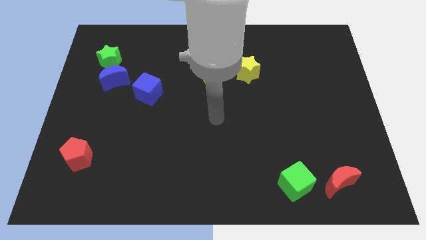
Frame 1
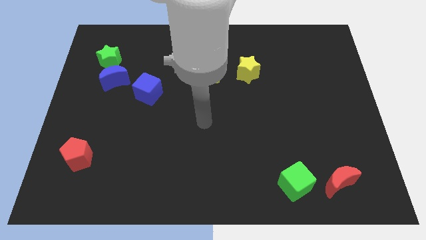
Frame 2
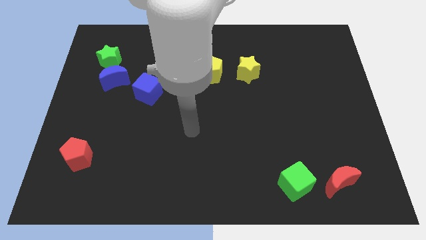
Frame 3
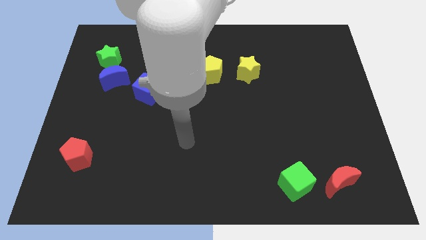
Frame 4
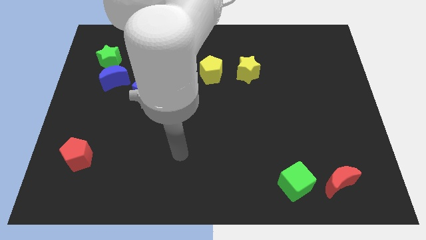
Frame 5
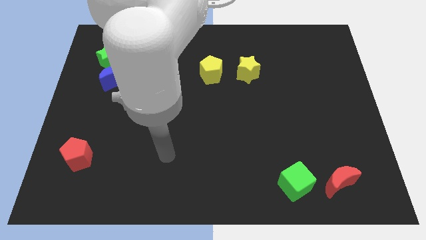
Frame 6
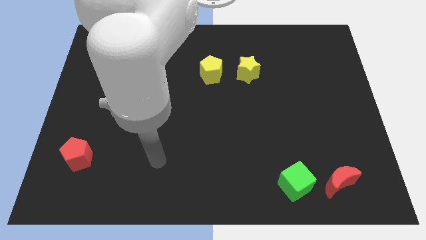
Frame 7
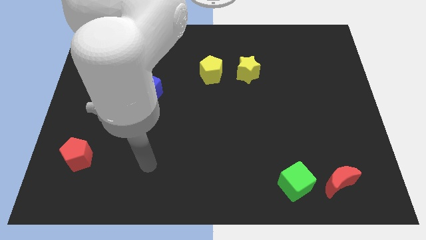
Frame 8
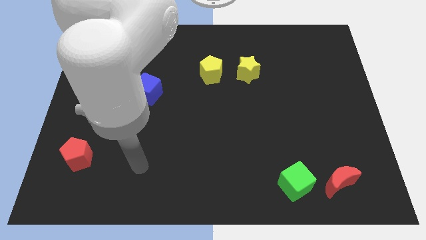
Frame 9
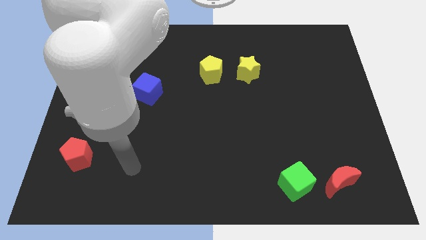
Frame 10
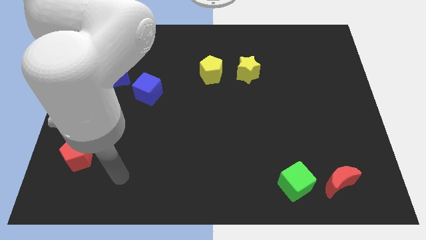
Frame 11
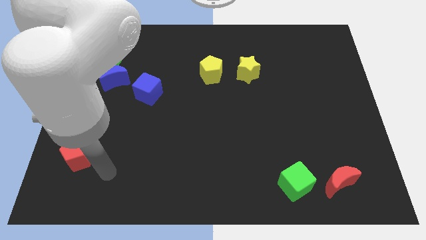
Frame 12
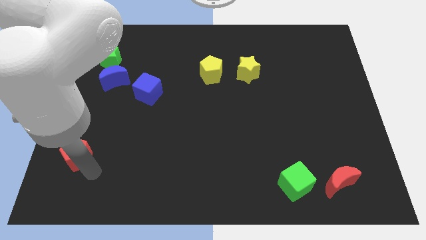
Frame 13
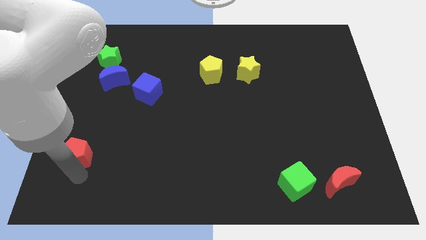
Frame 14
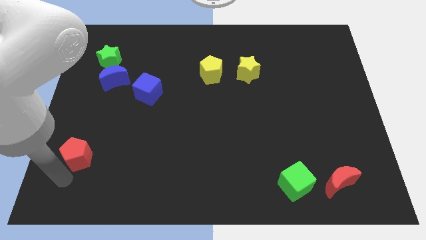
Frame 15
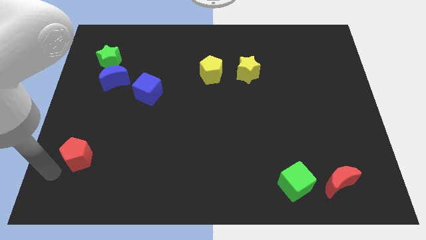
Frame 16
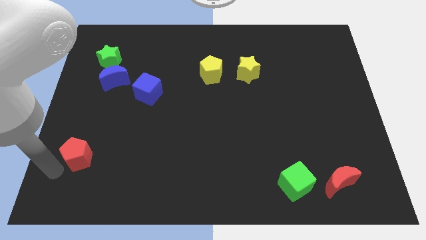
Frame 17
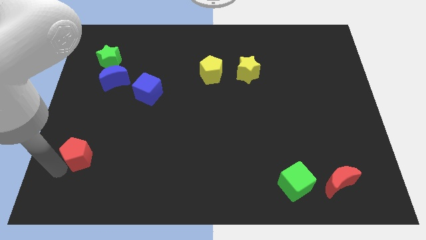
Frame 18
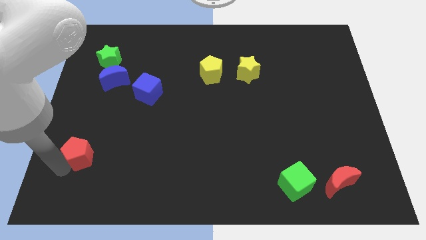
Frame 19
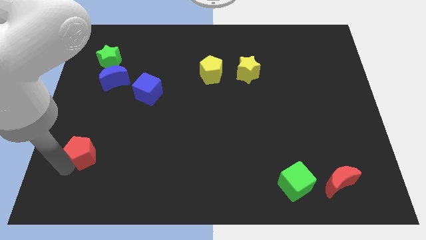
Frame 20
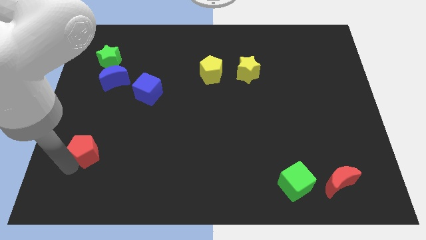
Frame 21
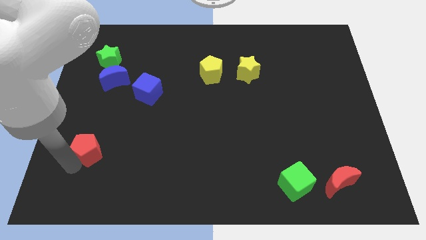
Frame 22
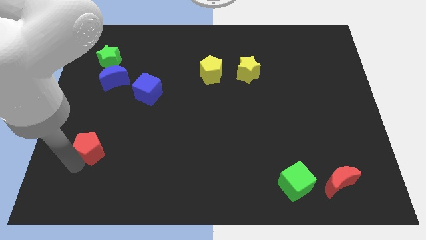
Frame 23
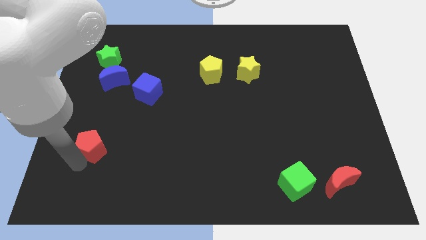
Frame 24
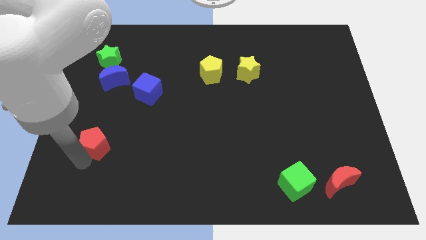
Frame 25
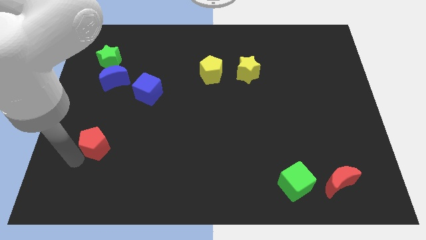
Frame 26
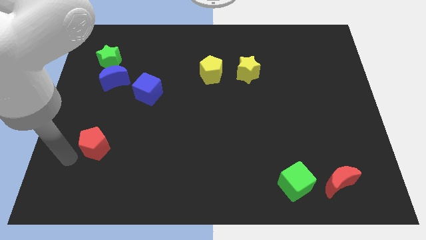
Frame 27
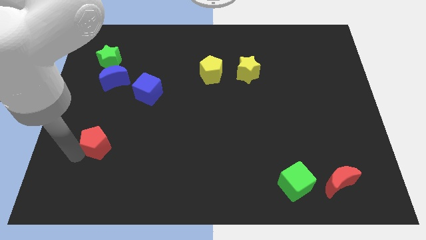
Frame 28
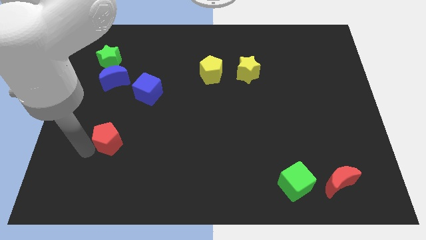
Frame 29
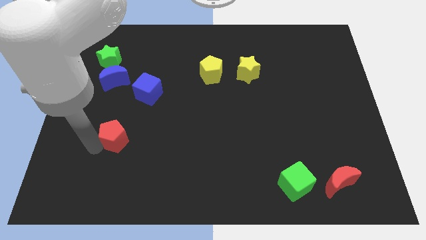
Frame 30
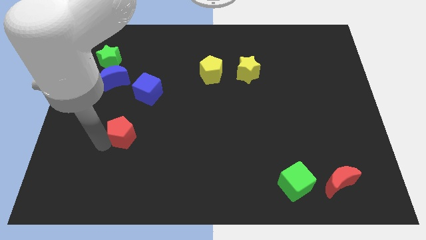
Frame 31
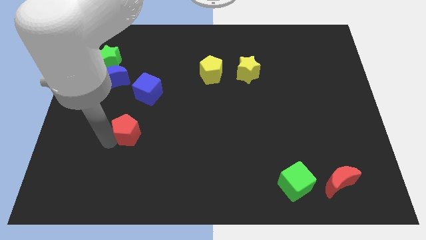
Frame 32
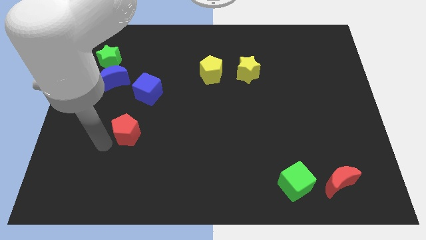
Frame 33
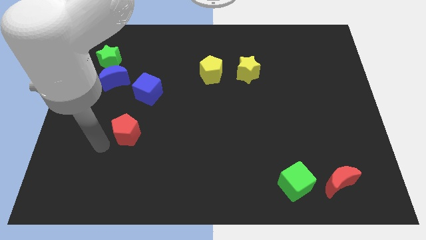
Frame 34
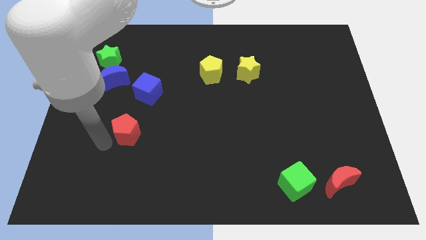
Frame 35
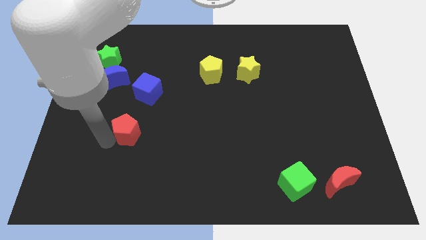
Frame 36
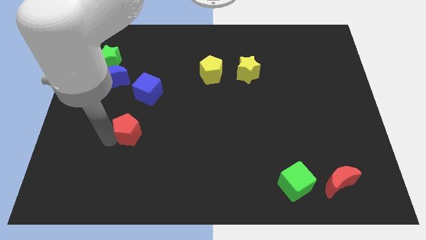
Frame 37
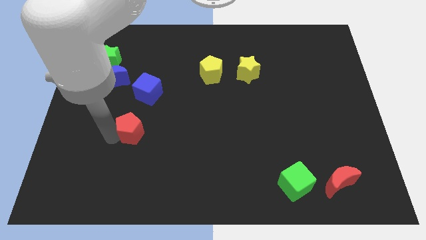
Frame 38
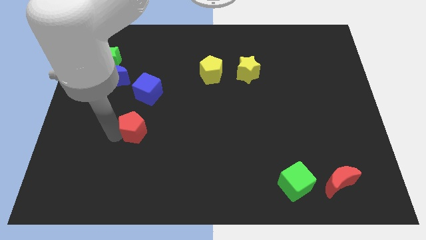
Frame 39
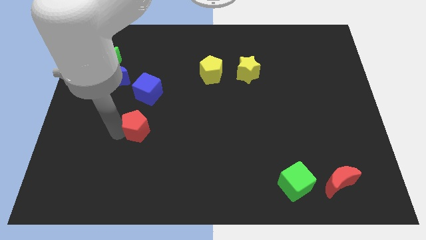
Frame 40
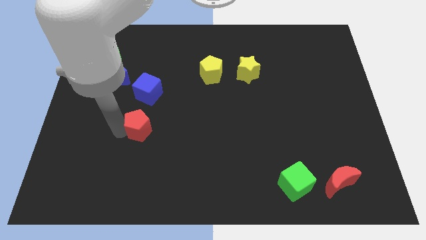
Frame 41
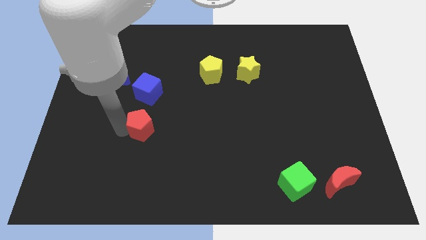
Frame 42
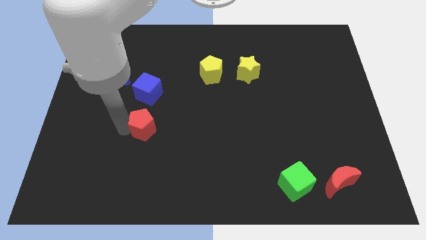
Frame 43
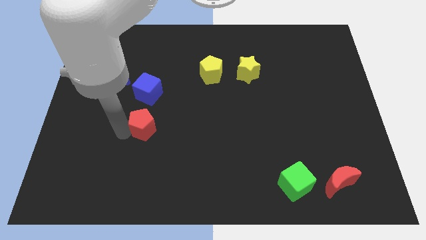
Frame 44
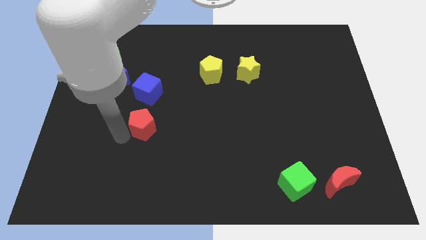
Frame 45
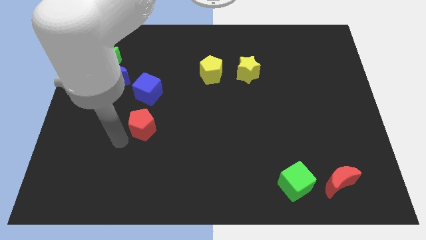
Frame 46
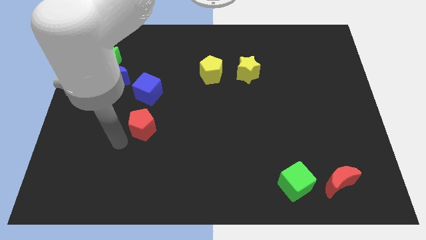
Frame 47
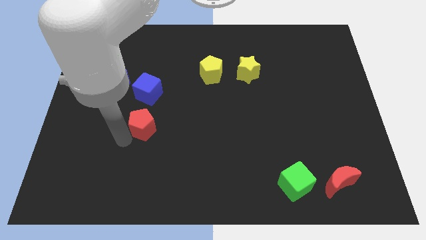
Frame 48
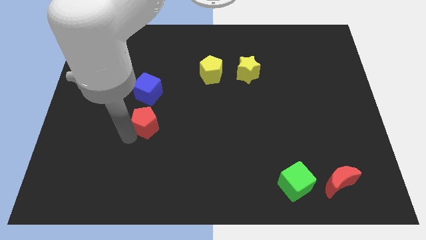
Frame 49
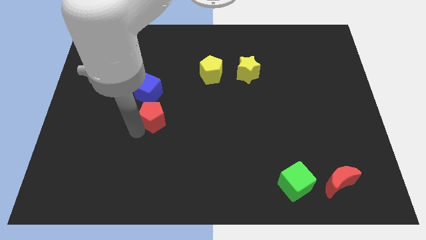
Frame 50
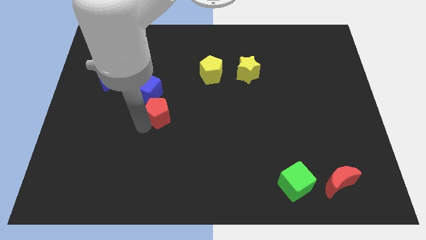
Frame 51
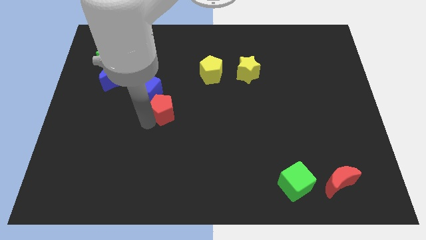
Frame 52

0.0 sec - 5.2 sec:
move the red pentagon to the middle of the board

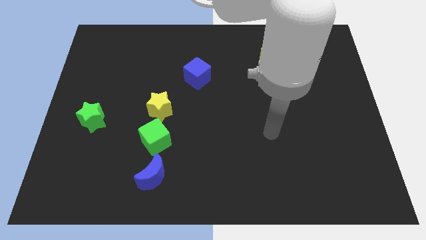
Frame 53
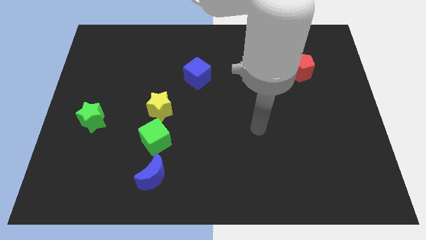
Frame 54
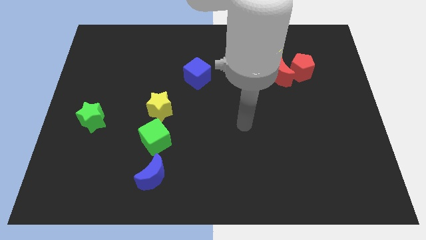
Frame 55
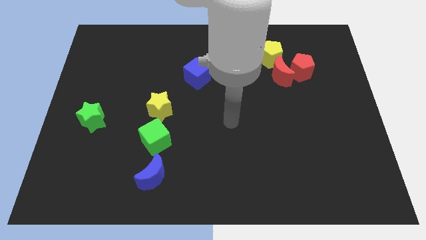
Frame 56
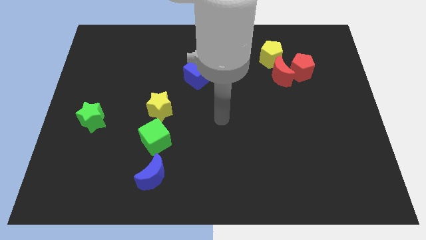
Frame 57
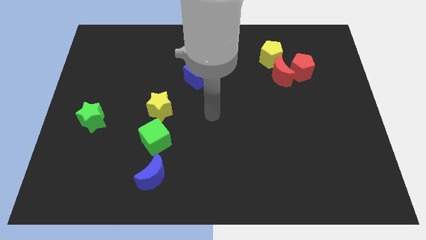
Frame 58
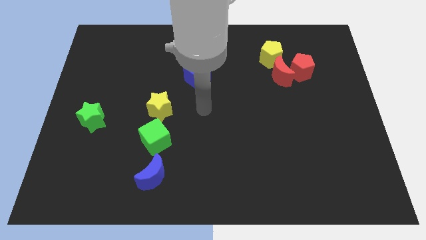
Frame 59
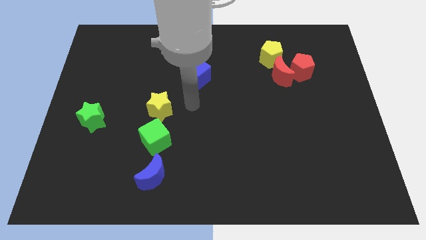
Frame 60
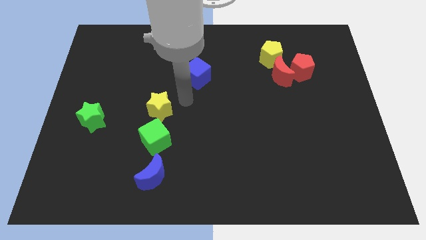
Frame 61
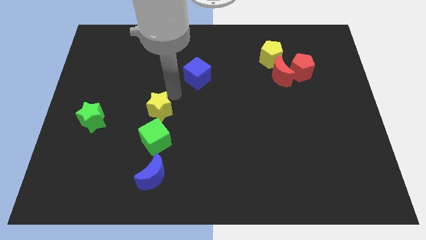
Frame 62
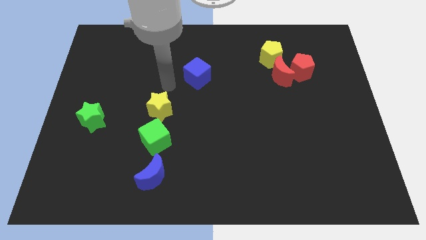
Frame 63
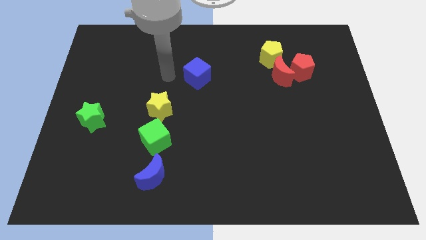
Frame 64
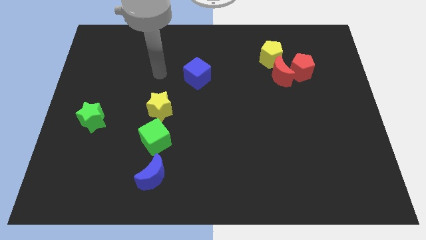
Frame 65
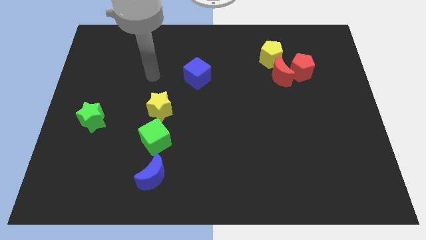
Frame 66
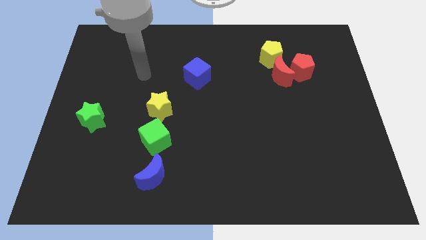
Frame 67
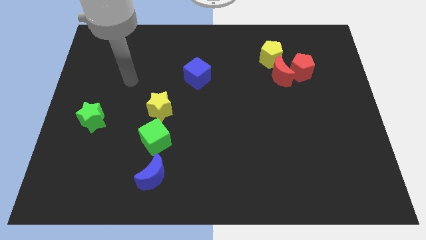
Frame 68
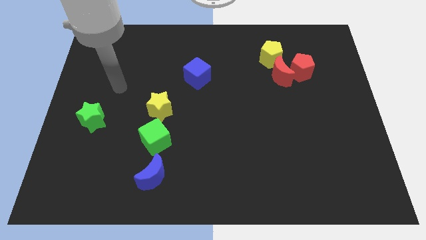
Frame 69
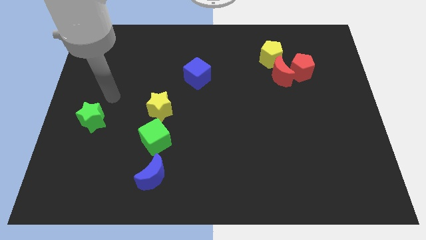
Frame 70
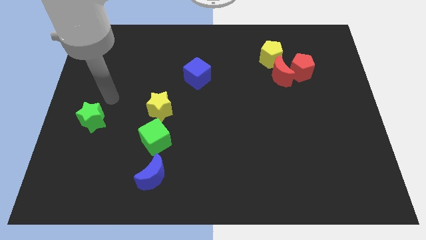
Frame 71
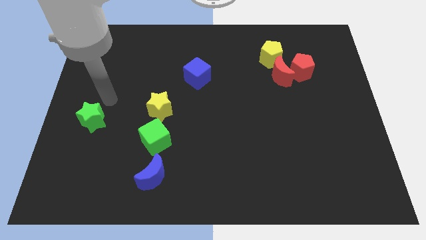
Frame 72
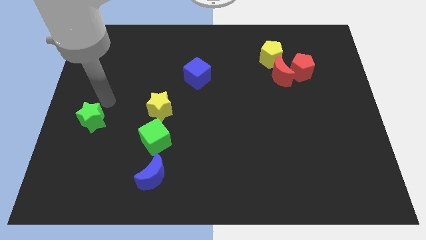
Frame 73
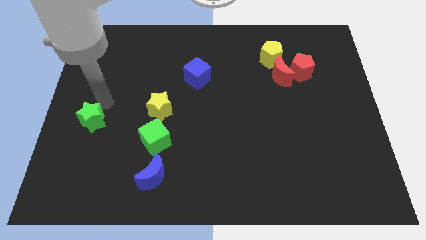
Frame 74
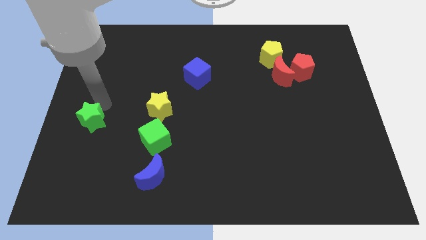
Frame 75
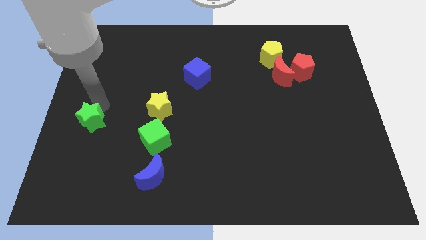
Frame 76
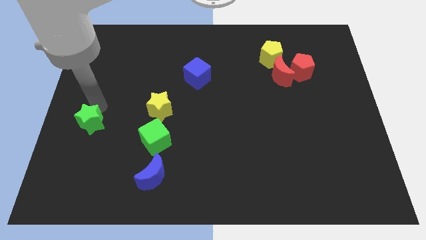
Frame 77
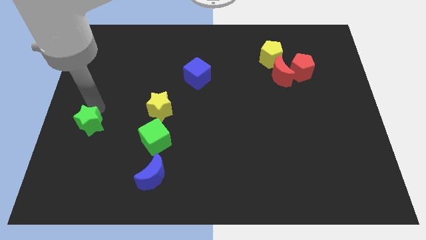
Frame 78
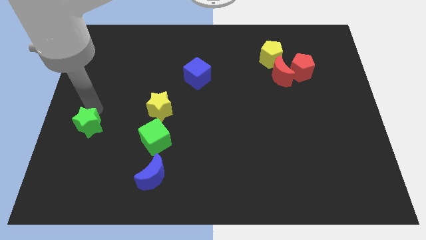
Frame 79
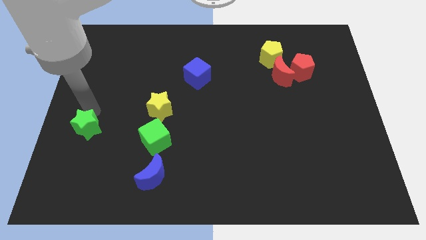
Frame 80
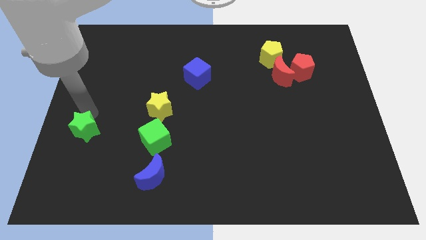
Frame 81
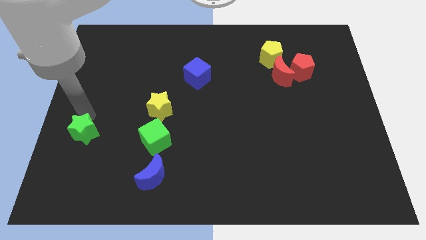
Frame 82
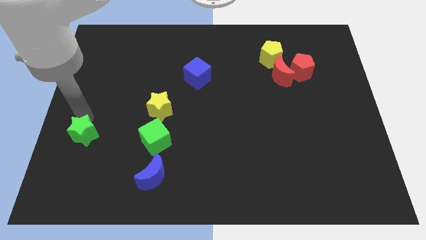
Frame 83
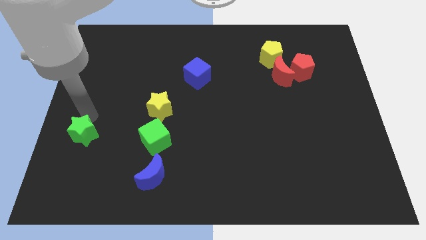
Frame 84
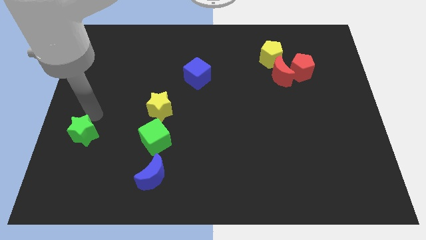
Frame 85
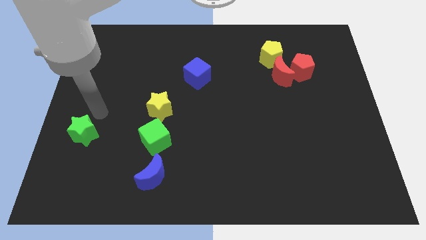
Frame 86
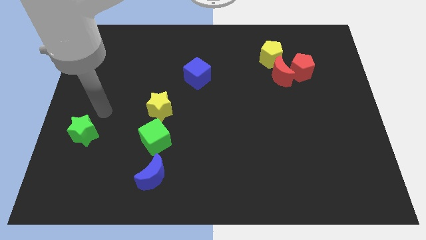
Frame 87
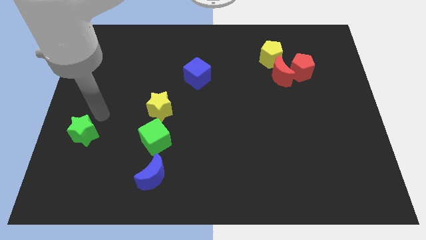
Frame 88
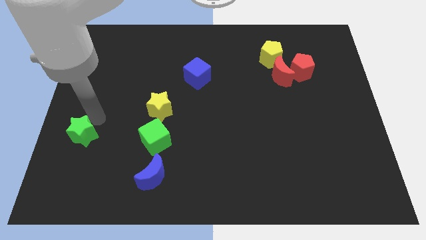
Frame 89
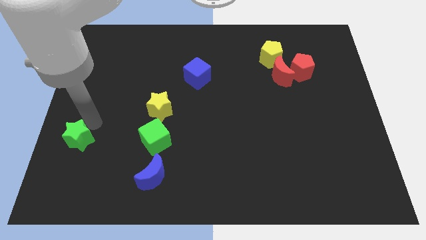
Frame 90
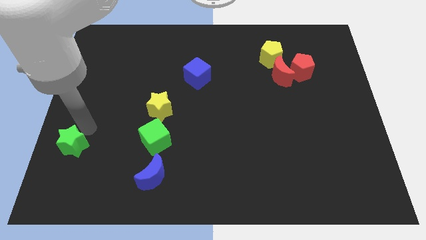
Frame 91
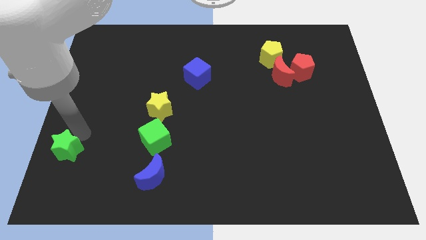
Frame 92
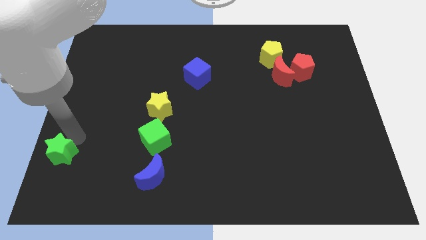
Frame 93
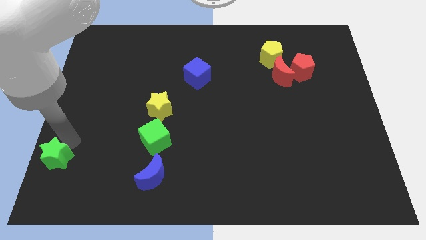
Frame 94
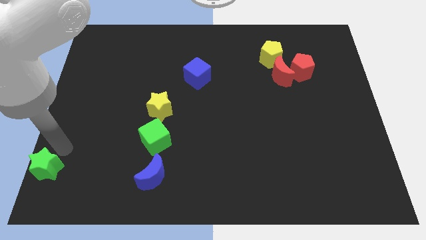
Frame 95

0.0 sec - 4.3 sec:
move the green star to the bottom left corner
